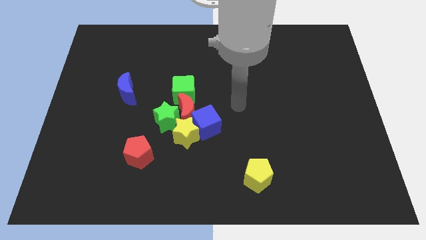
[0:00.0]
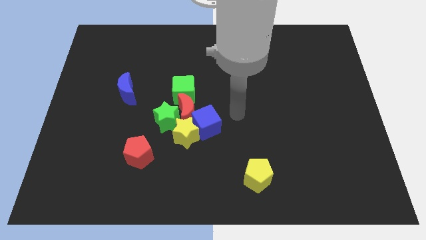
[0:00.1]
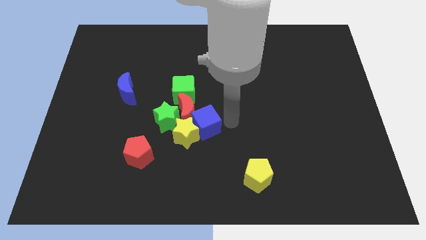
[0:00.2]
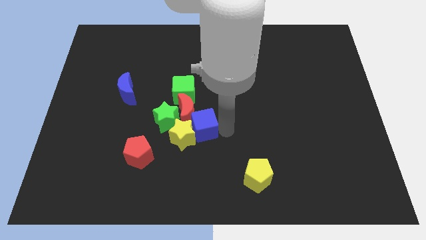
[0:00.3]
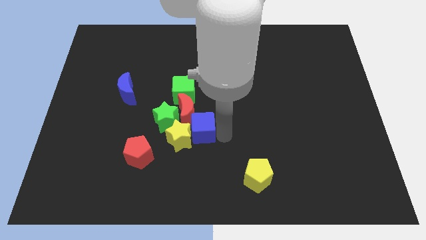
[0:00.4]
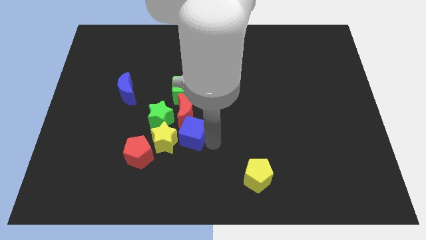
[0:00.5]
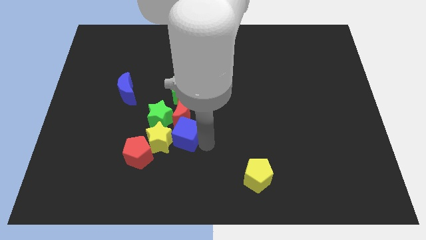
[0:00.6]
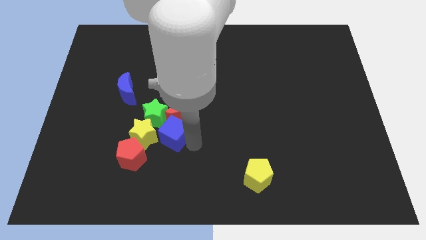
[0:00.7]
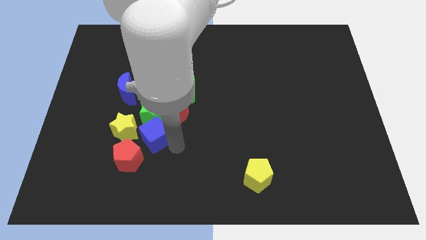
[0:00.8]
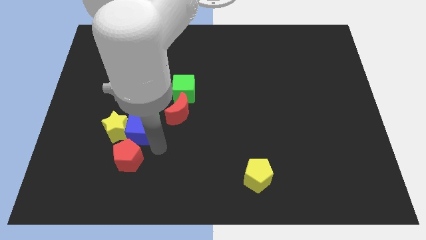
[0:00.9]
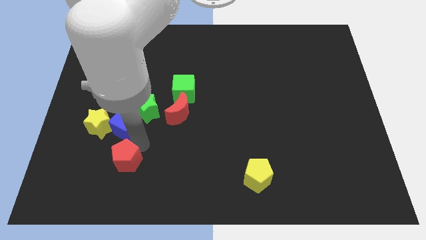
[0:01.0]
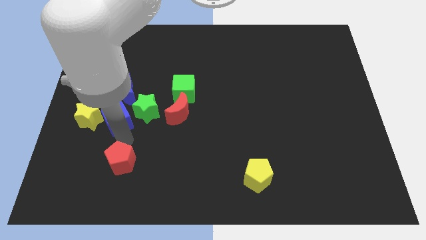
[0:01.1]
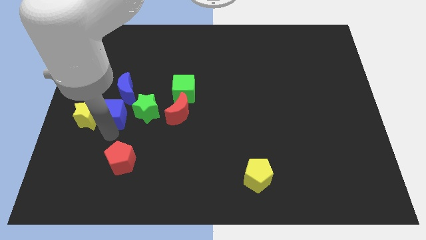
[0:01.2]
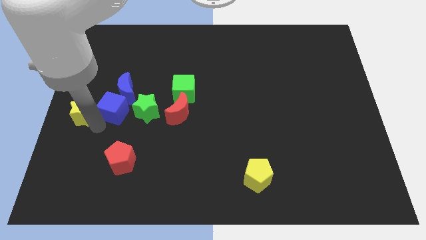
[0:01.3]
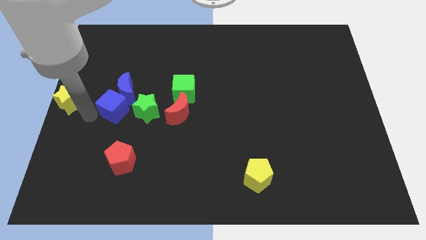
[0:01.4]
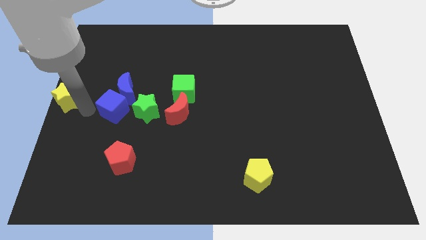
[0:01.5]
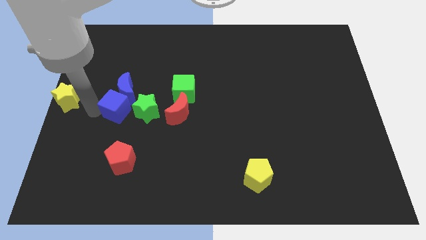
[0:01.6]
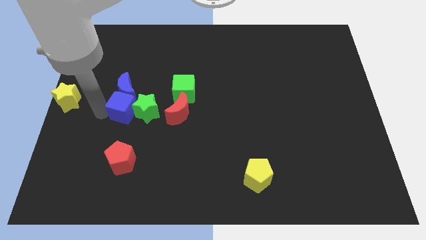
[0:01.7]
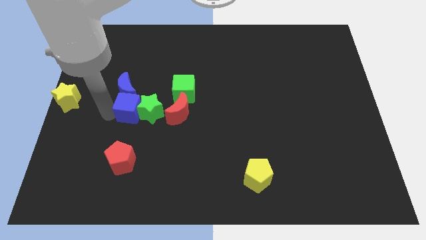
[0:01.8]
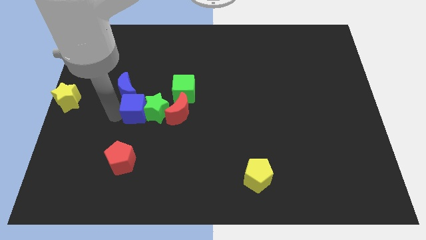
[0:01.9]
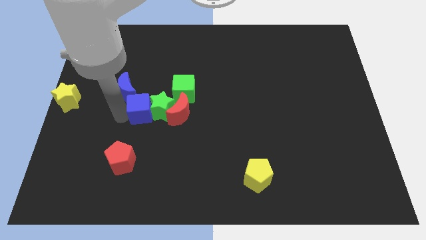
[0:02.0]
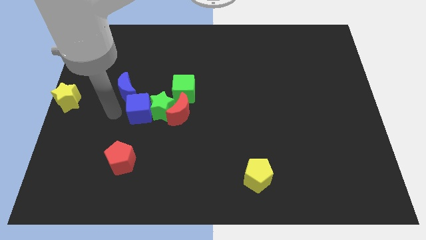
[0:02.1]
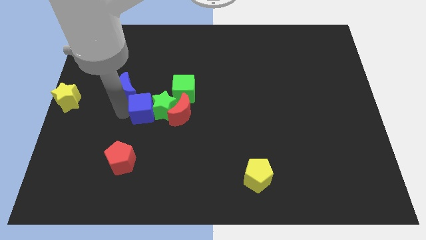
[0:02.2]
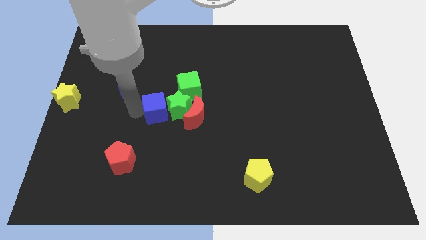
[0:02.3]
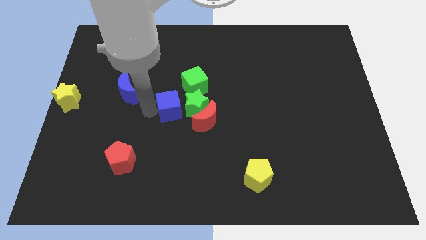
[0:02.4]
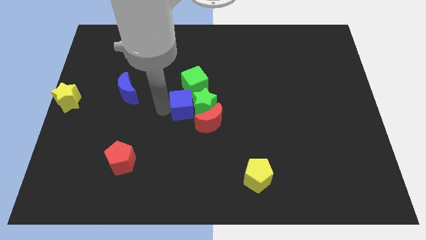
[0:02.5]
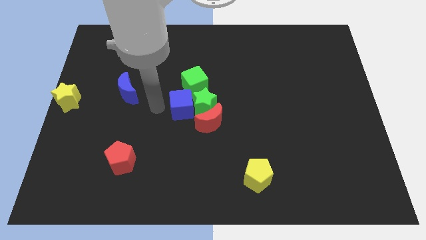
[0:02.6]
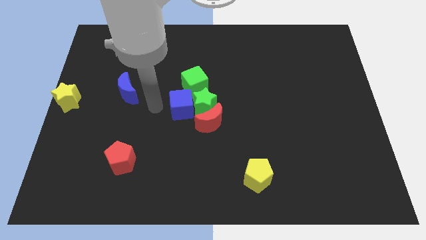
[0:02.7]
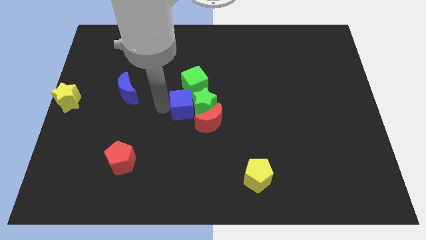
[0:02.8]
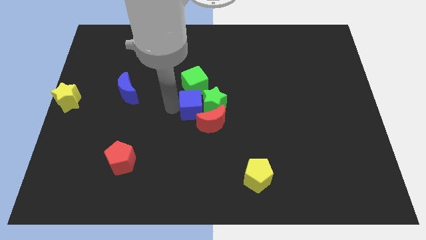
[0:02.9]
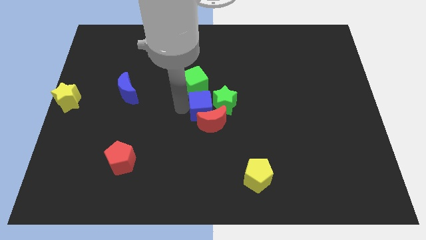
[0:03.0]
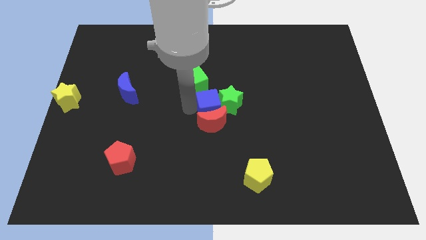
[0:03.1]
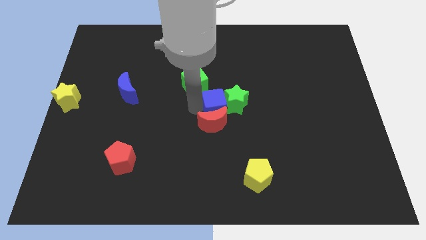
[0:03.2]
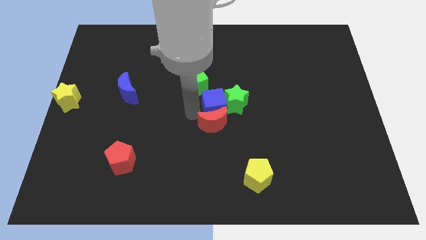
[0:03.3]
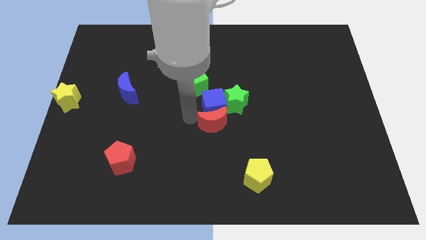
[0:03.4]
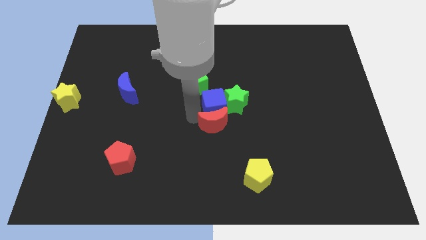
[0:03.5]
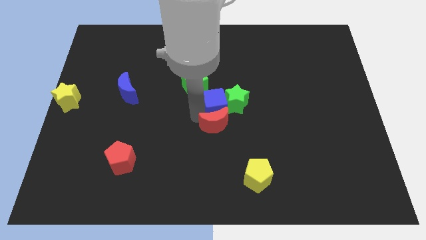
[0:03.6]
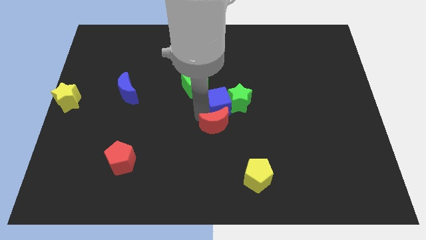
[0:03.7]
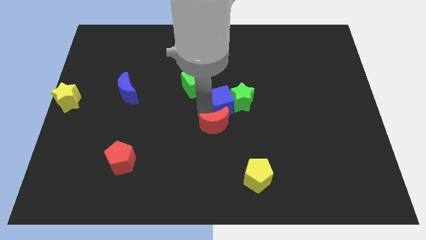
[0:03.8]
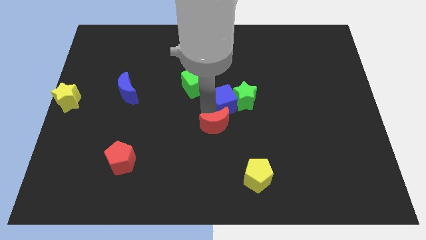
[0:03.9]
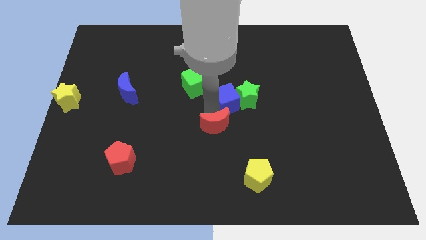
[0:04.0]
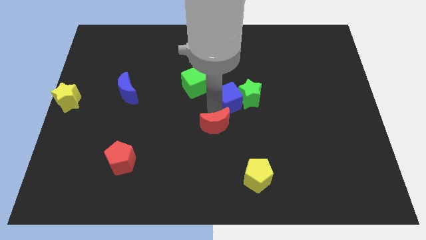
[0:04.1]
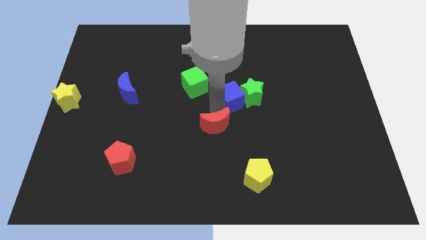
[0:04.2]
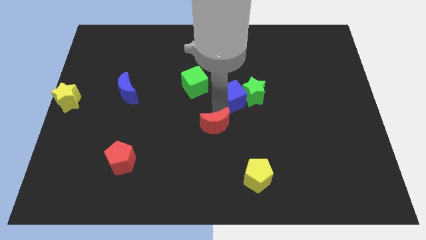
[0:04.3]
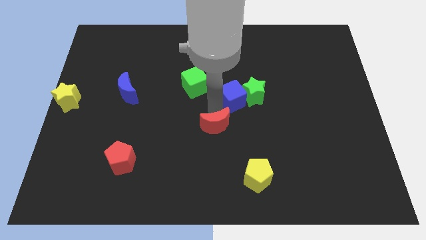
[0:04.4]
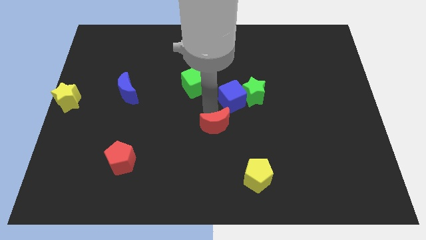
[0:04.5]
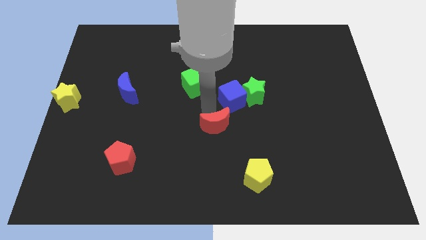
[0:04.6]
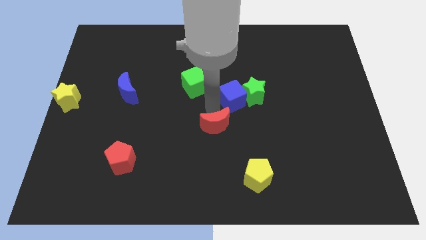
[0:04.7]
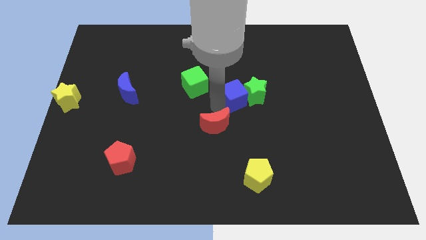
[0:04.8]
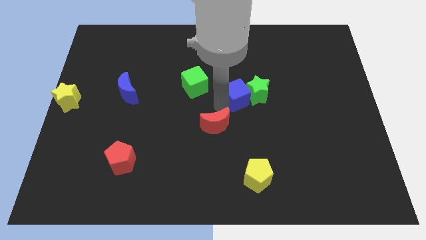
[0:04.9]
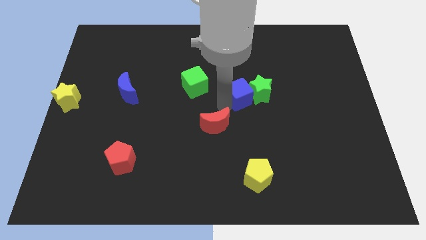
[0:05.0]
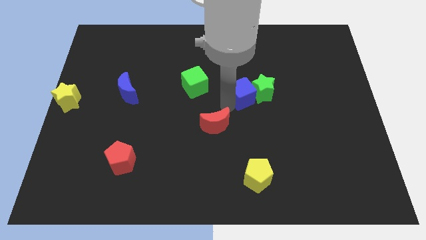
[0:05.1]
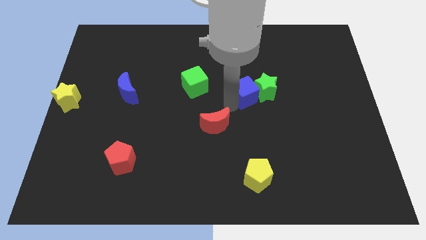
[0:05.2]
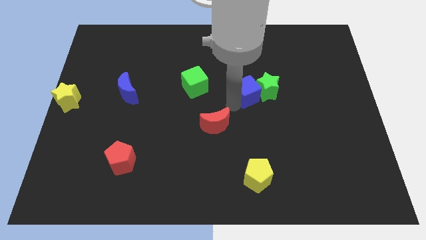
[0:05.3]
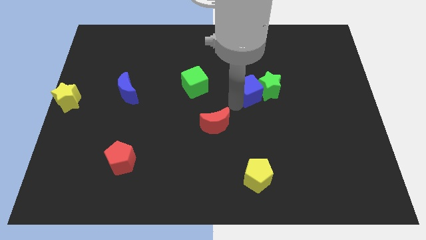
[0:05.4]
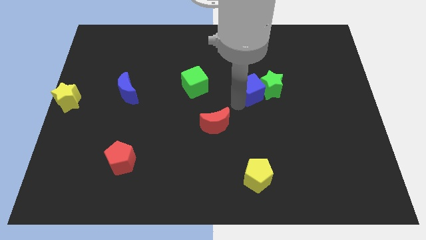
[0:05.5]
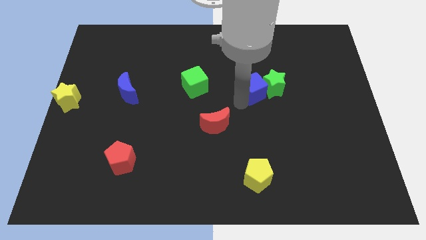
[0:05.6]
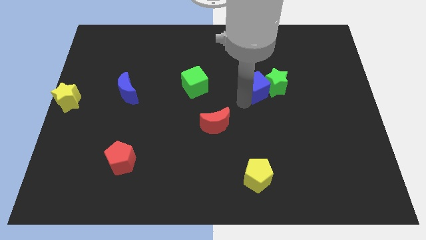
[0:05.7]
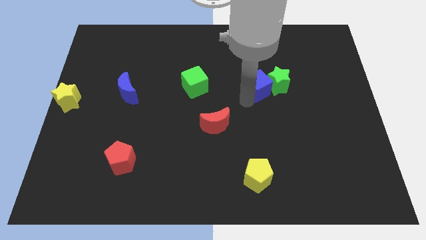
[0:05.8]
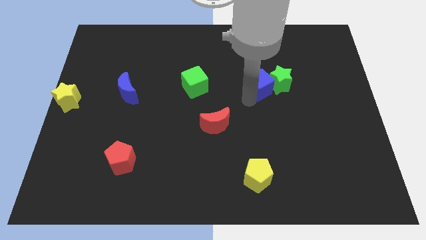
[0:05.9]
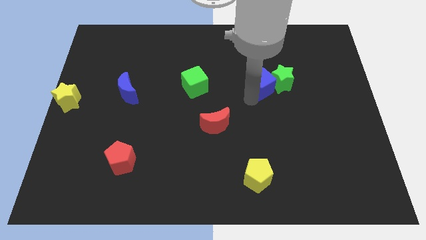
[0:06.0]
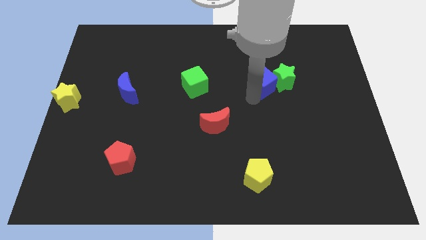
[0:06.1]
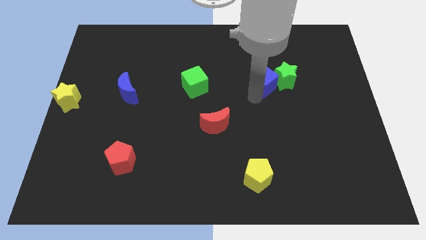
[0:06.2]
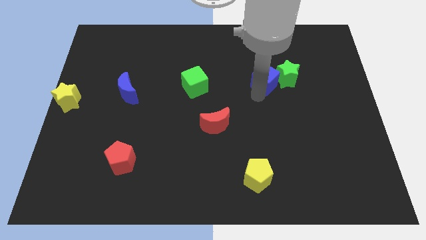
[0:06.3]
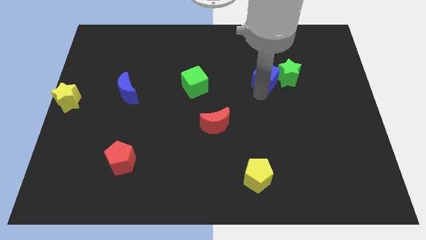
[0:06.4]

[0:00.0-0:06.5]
push the blue cube up and then to the right

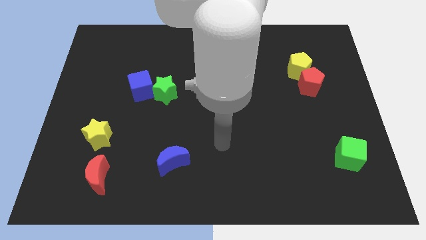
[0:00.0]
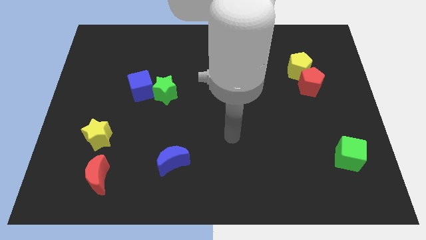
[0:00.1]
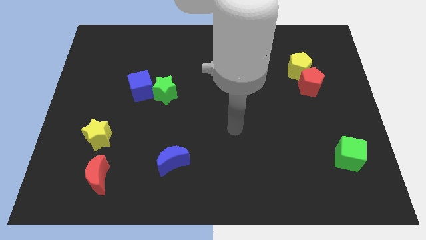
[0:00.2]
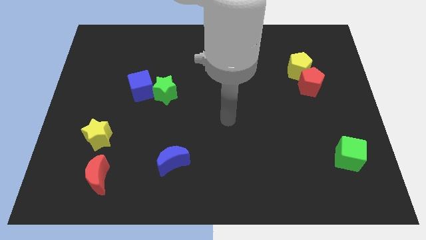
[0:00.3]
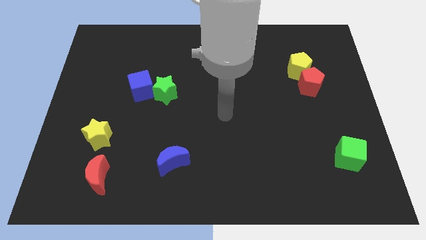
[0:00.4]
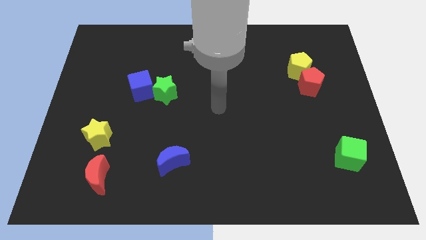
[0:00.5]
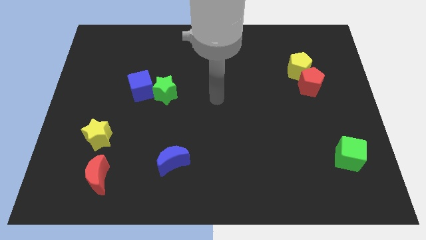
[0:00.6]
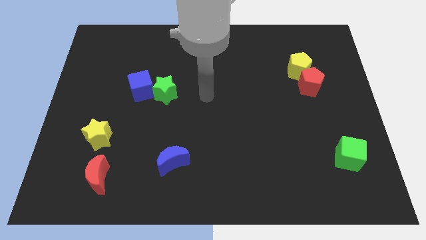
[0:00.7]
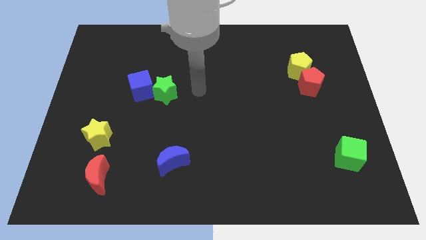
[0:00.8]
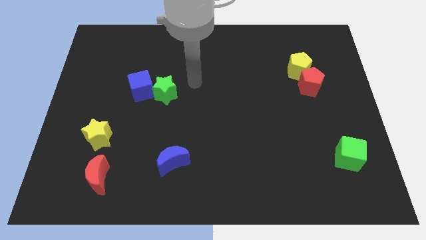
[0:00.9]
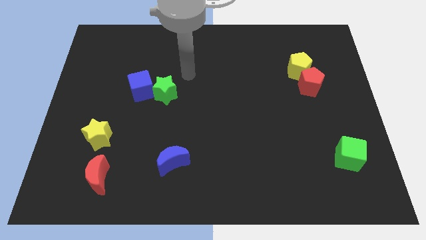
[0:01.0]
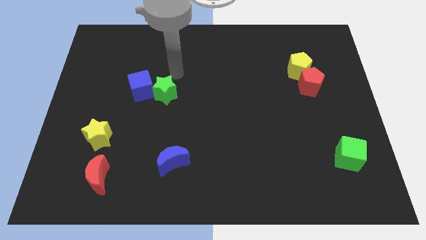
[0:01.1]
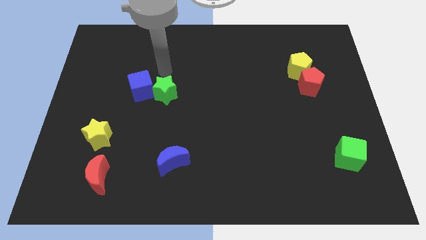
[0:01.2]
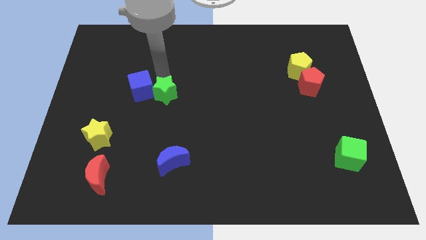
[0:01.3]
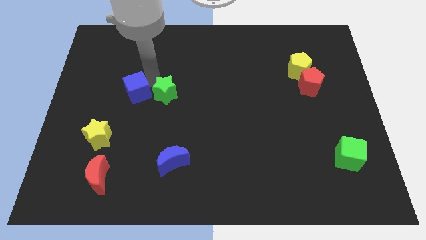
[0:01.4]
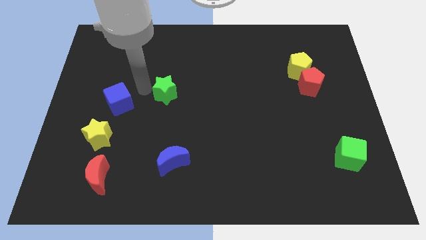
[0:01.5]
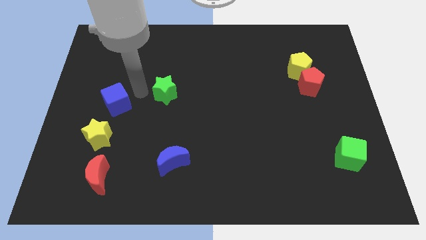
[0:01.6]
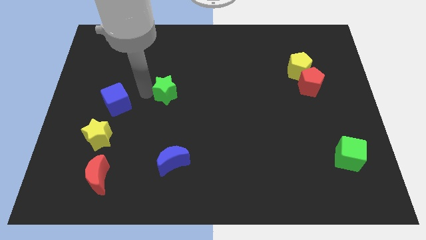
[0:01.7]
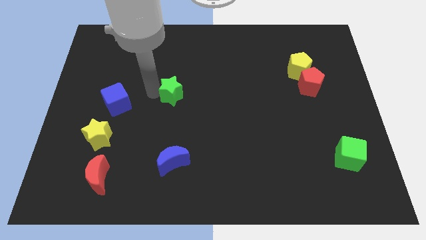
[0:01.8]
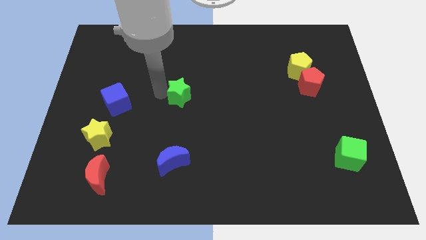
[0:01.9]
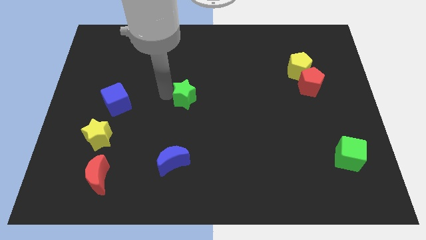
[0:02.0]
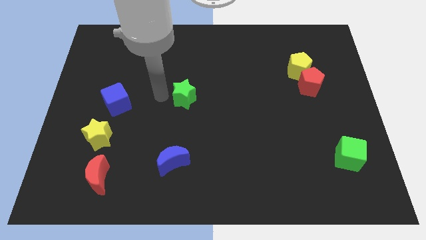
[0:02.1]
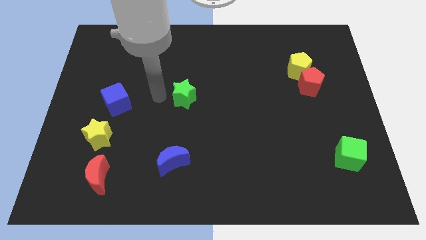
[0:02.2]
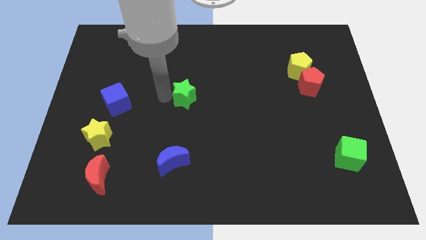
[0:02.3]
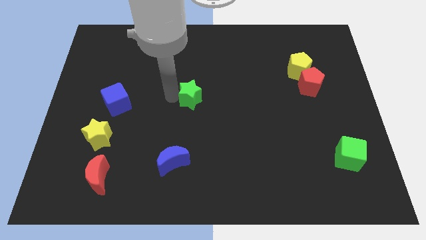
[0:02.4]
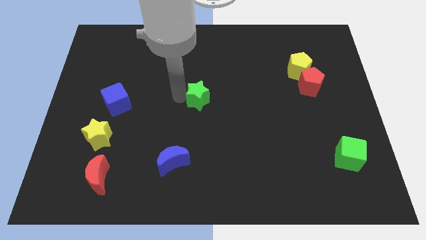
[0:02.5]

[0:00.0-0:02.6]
slightly move the green star to the right
